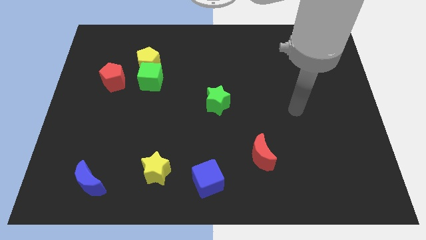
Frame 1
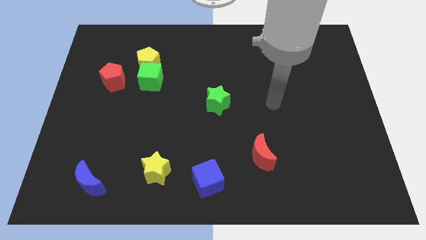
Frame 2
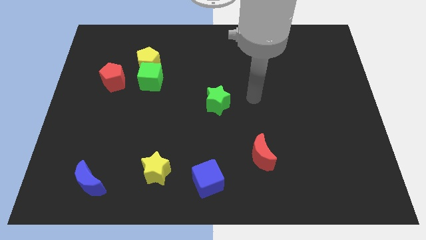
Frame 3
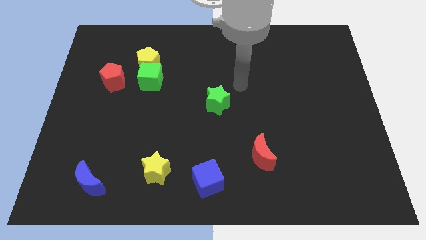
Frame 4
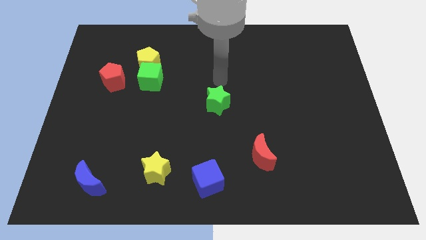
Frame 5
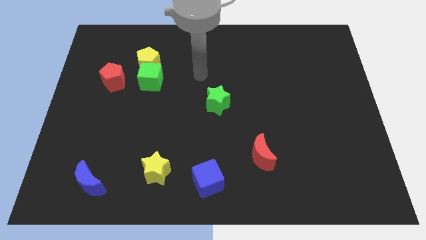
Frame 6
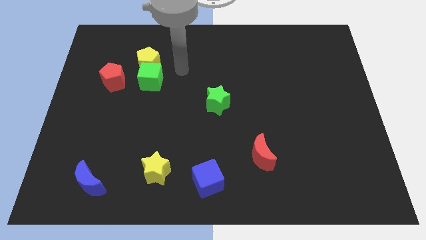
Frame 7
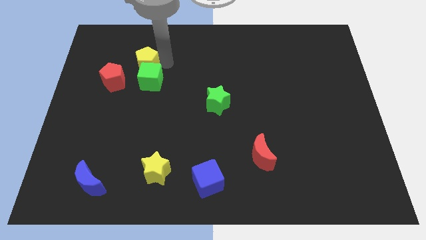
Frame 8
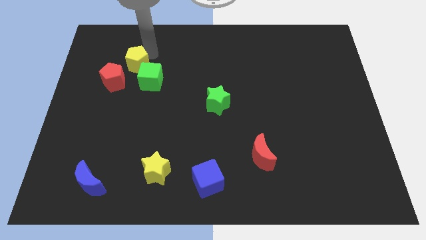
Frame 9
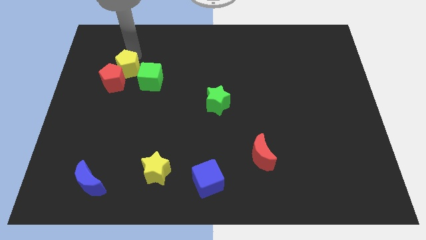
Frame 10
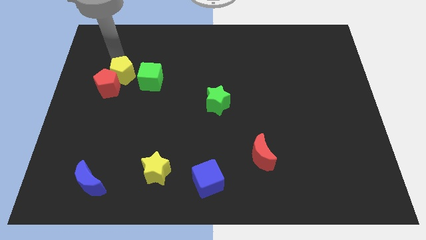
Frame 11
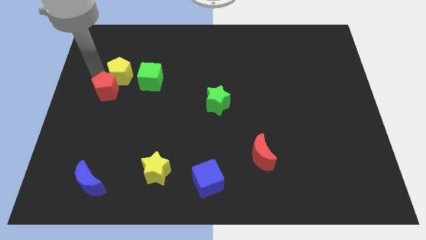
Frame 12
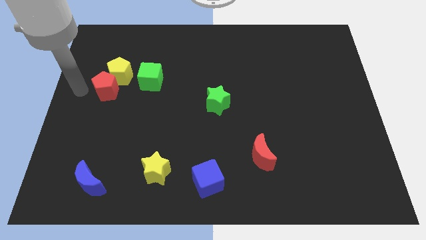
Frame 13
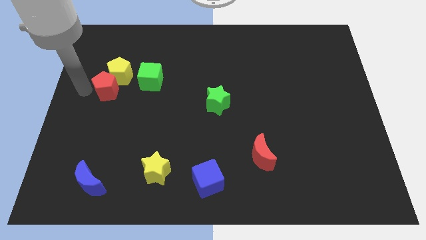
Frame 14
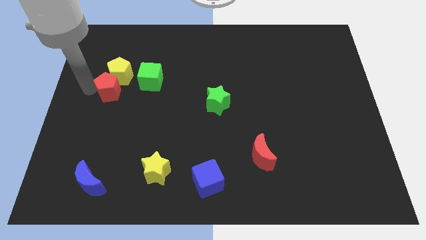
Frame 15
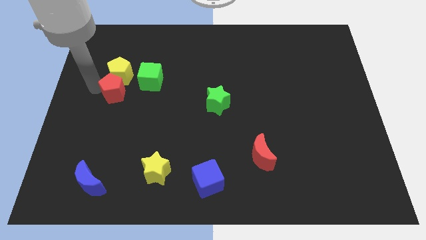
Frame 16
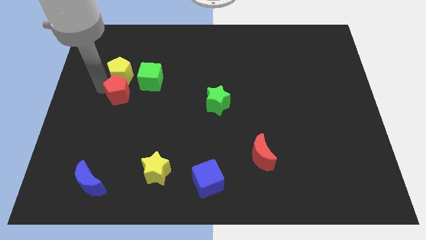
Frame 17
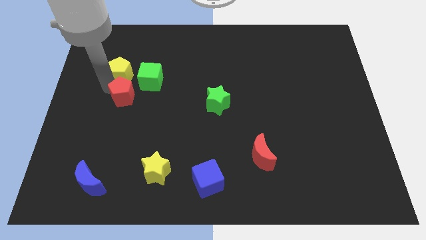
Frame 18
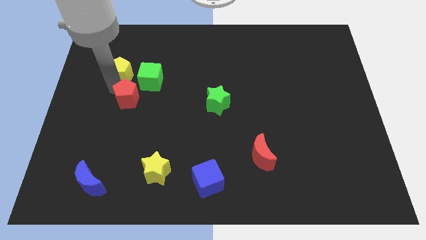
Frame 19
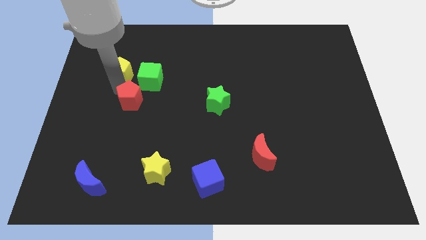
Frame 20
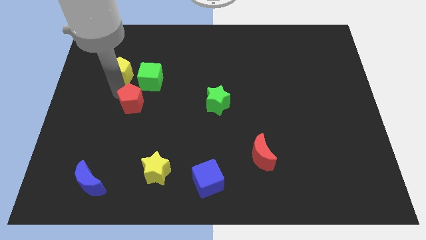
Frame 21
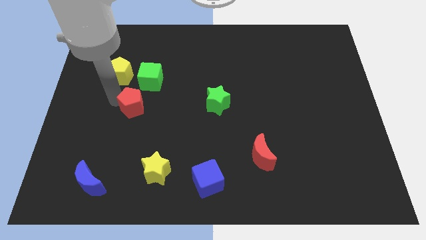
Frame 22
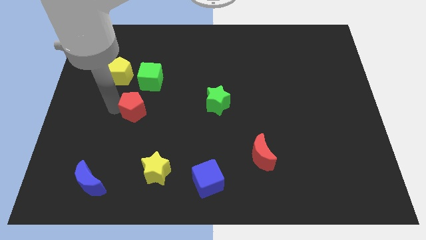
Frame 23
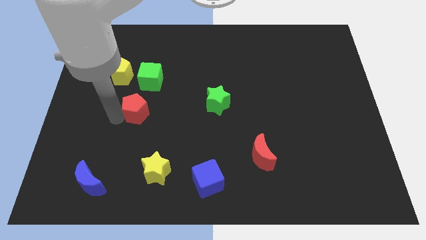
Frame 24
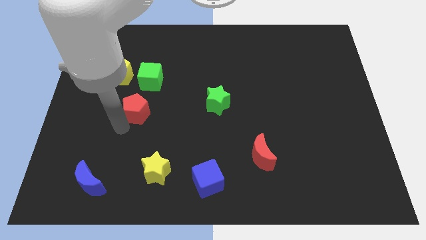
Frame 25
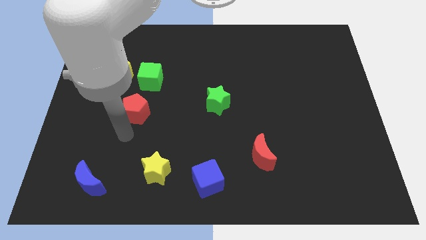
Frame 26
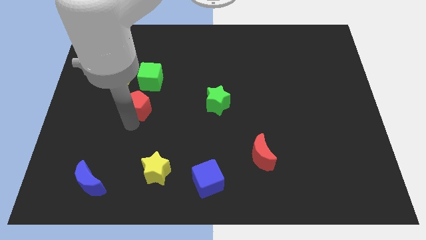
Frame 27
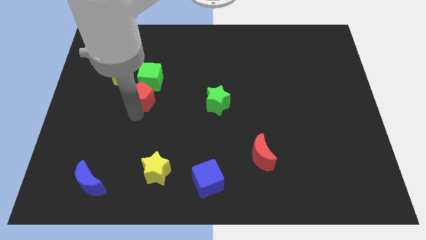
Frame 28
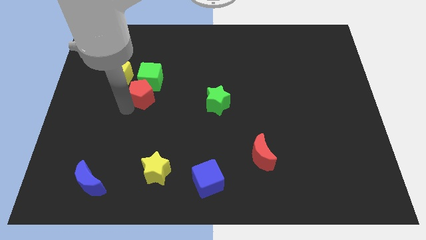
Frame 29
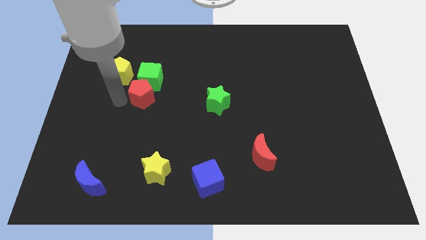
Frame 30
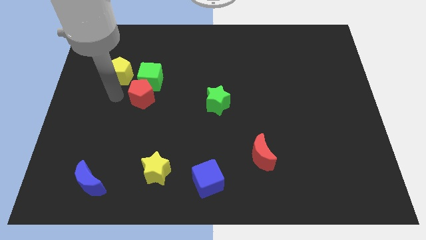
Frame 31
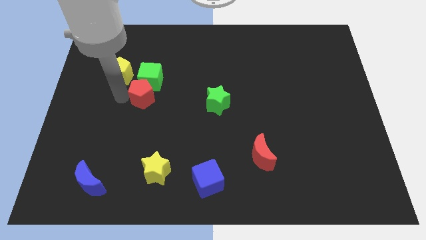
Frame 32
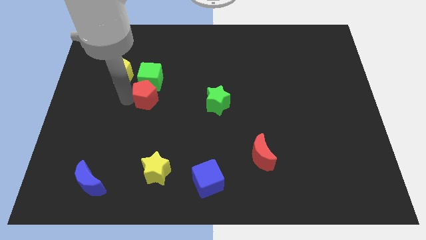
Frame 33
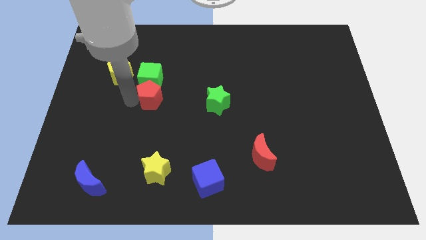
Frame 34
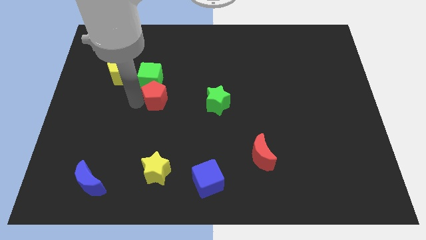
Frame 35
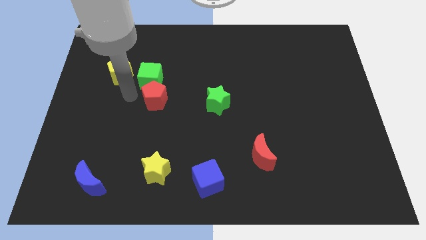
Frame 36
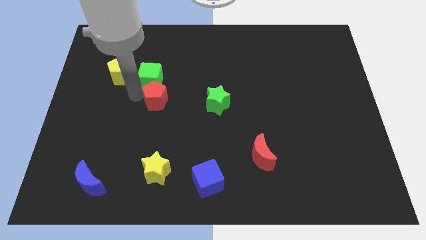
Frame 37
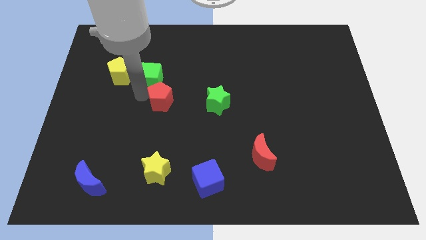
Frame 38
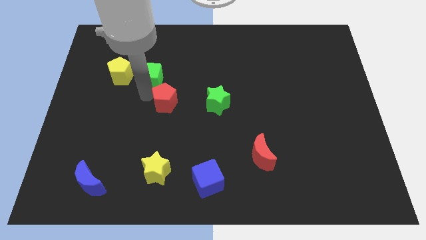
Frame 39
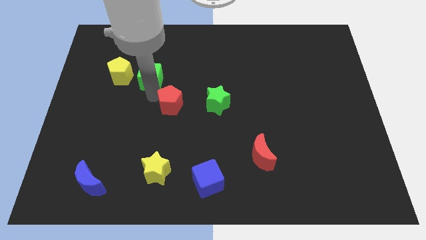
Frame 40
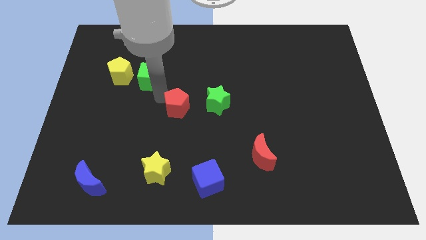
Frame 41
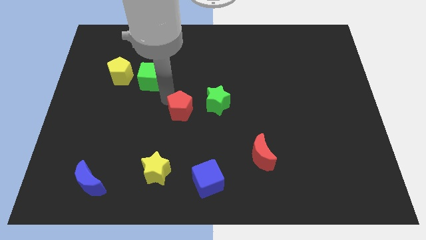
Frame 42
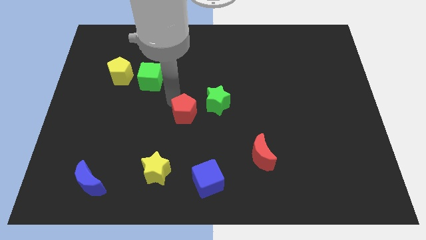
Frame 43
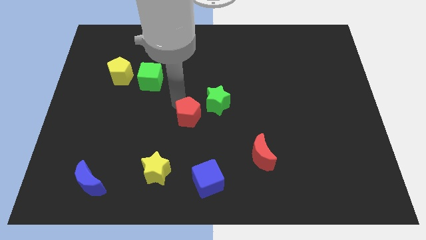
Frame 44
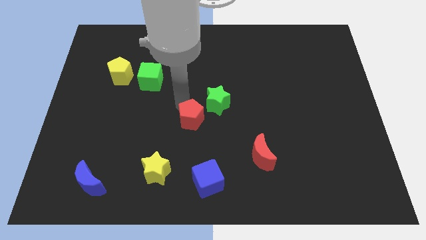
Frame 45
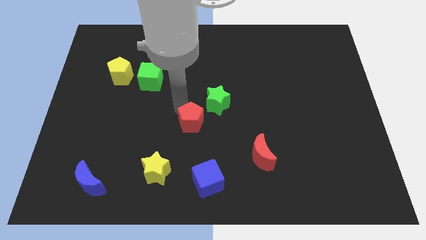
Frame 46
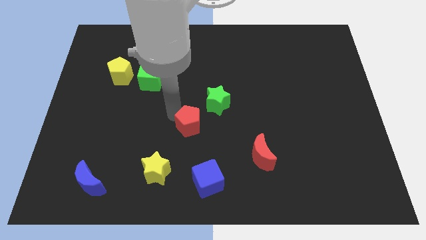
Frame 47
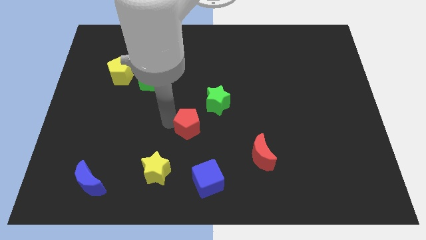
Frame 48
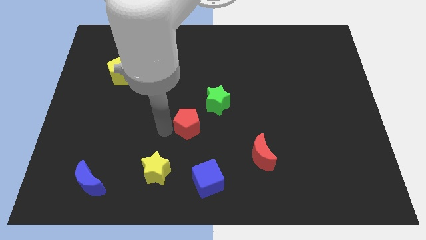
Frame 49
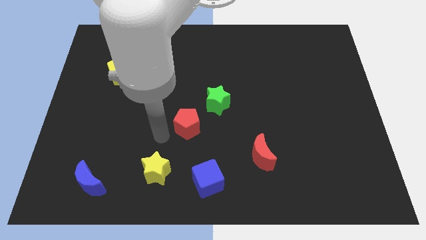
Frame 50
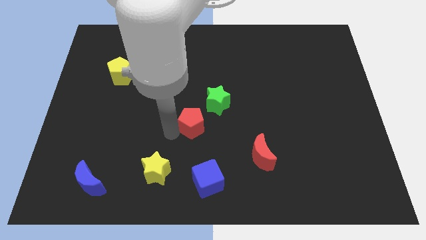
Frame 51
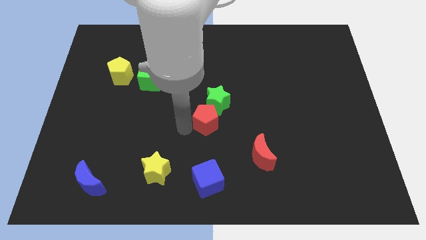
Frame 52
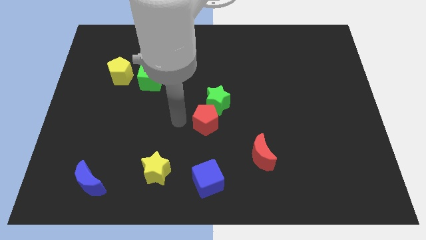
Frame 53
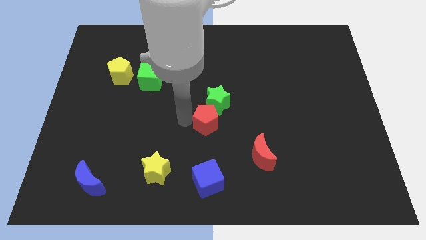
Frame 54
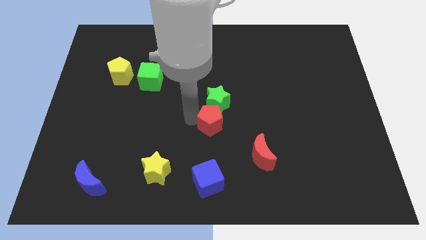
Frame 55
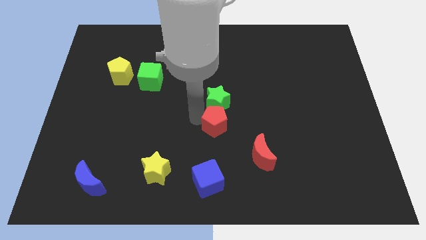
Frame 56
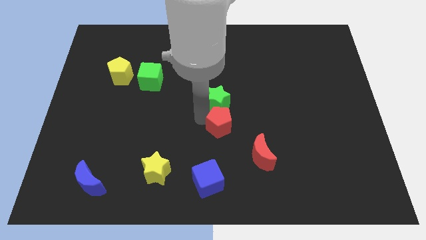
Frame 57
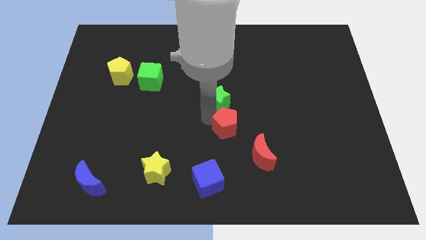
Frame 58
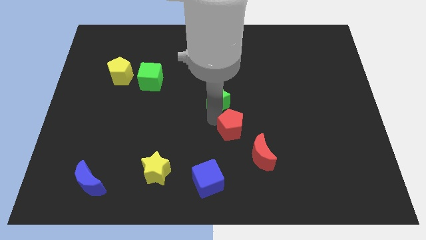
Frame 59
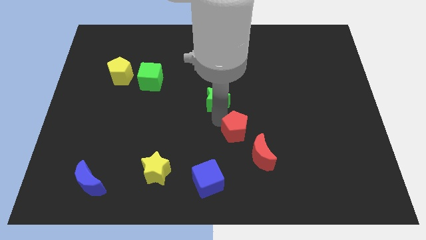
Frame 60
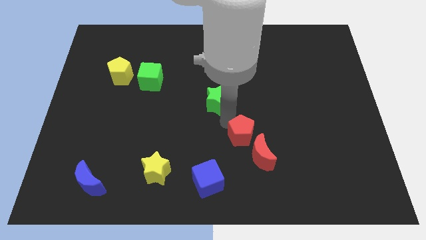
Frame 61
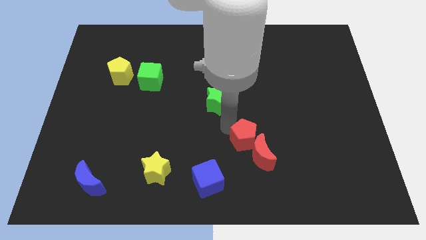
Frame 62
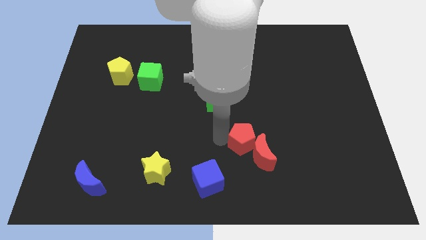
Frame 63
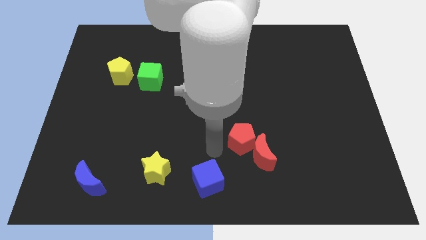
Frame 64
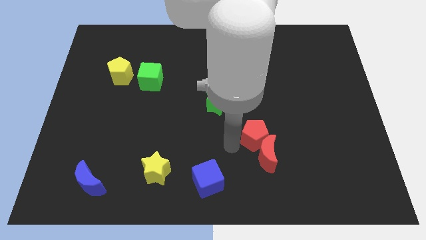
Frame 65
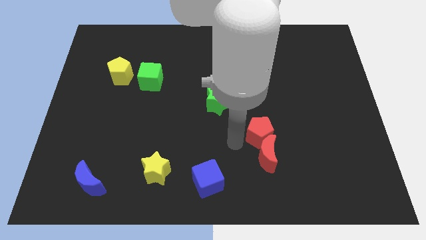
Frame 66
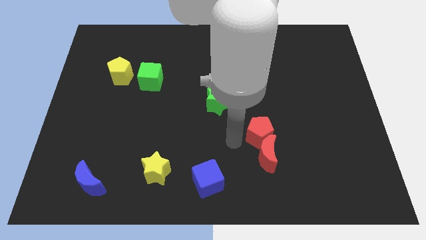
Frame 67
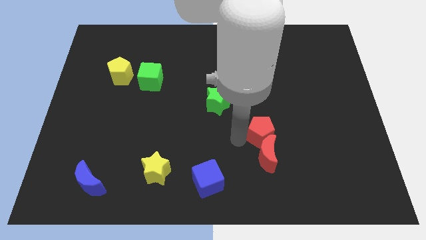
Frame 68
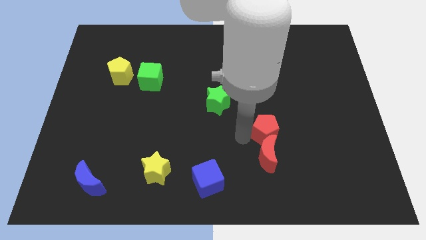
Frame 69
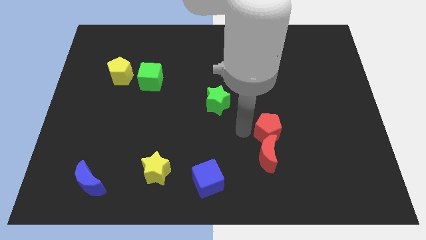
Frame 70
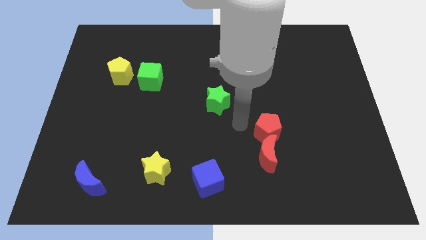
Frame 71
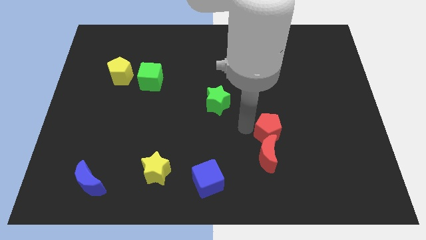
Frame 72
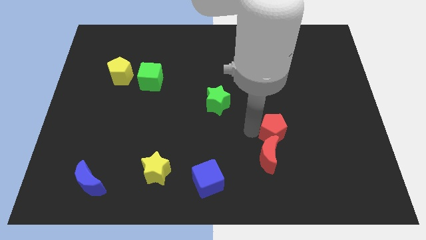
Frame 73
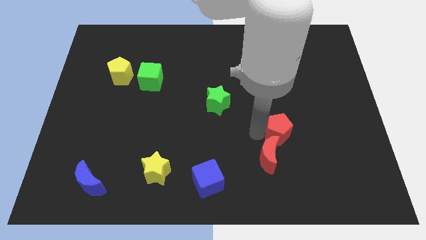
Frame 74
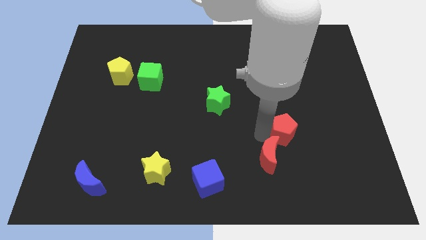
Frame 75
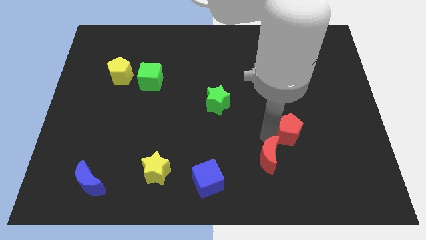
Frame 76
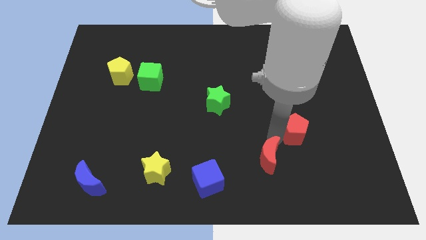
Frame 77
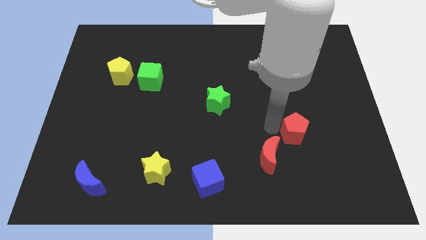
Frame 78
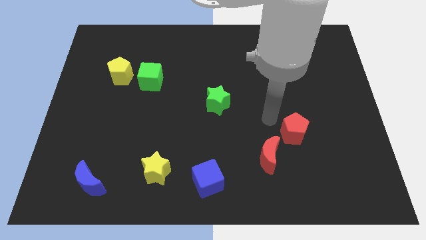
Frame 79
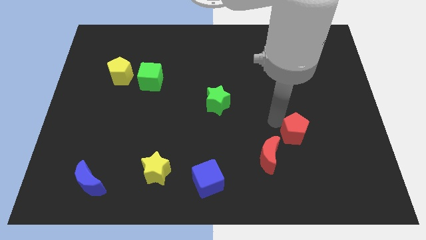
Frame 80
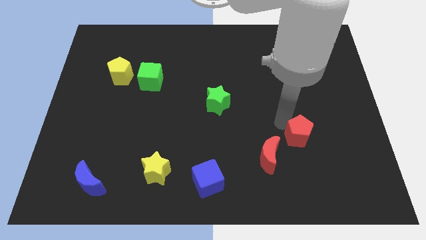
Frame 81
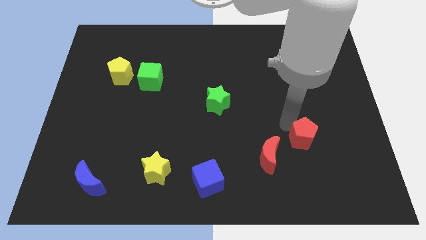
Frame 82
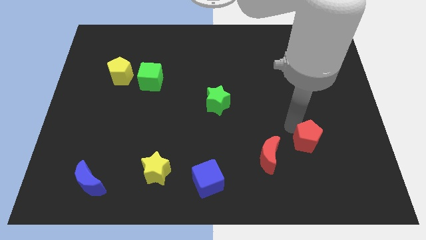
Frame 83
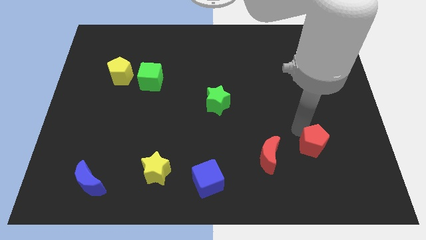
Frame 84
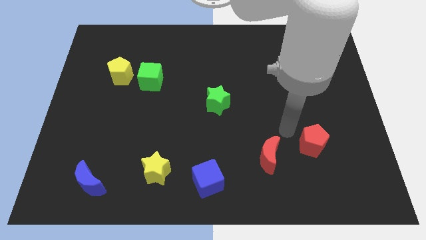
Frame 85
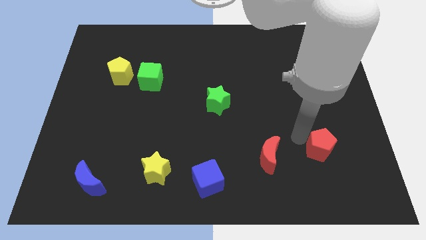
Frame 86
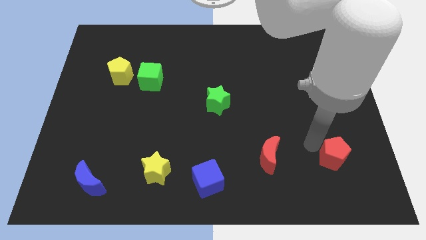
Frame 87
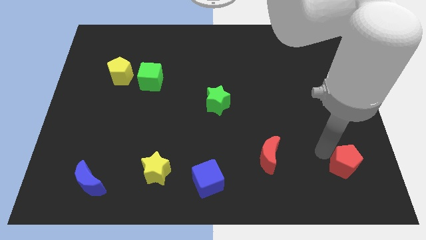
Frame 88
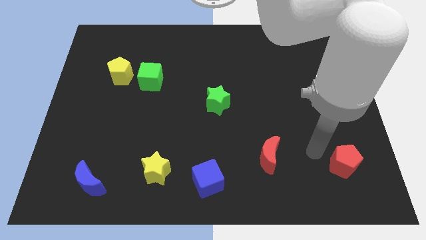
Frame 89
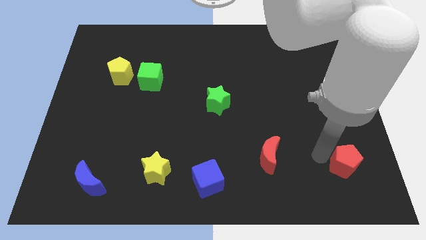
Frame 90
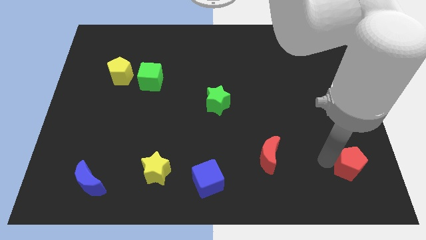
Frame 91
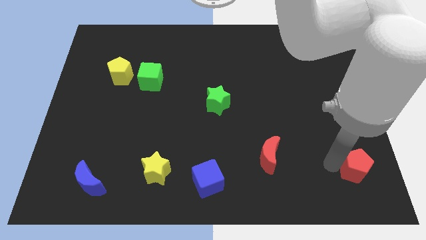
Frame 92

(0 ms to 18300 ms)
put the red pentagon to the bottom right
